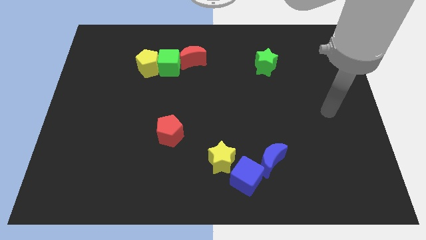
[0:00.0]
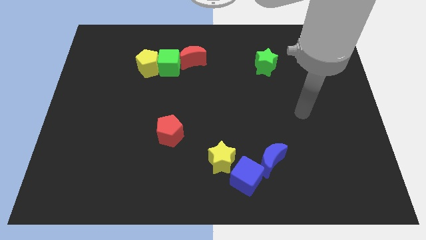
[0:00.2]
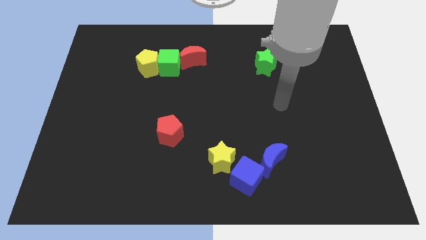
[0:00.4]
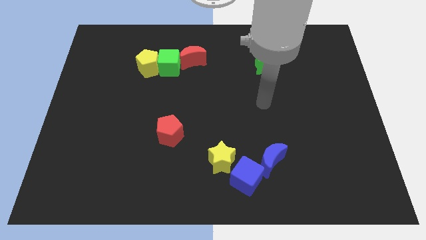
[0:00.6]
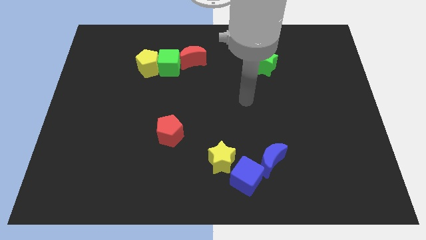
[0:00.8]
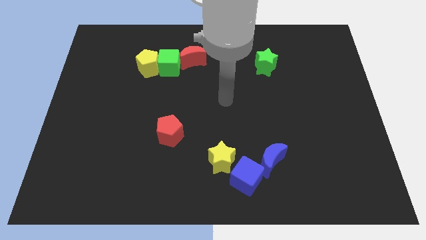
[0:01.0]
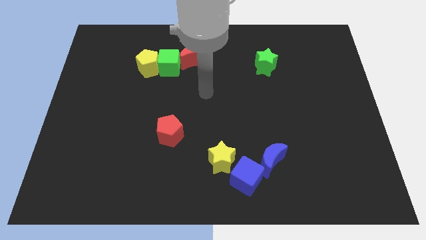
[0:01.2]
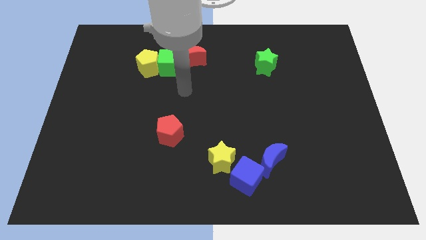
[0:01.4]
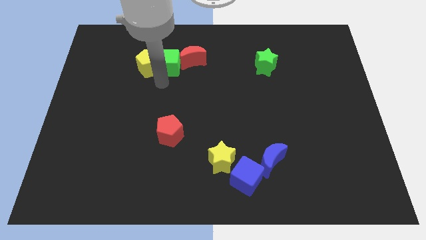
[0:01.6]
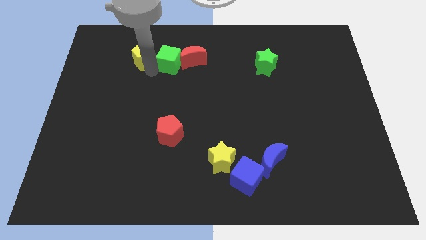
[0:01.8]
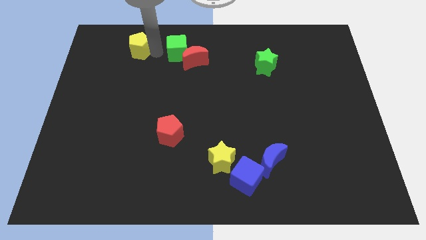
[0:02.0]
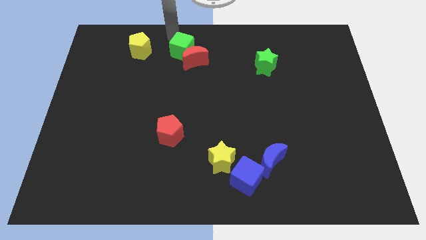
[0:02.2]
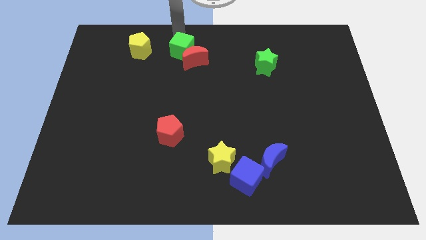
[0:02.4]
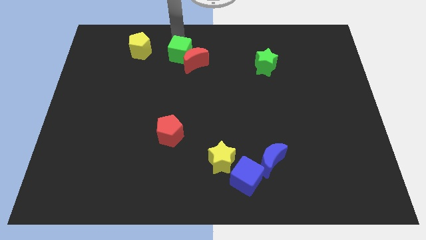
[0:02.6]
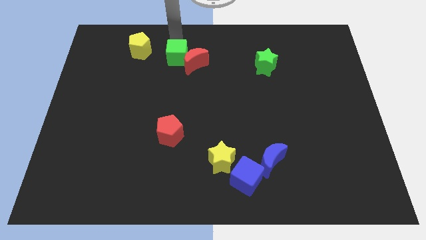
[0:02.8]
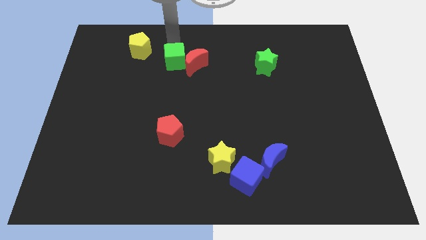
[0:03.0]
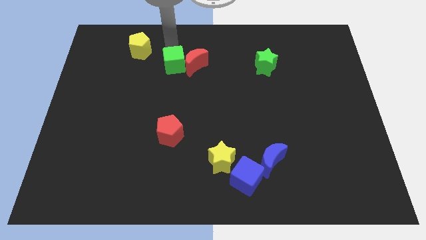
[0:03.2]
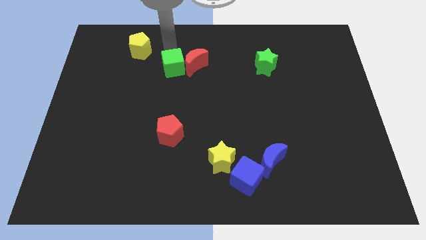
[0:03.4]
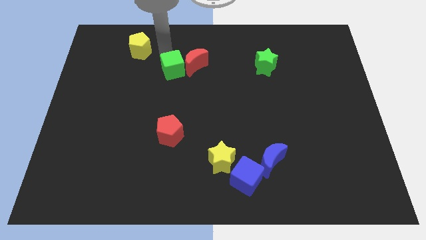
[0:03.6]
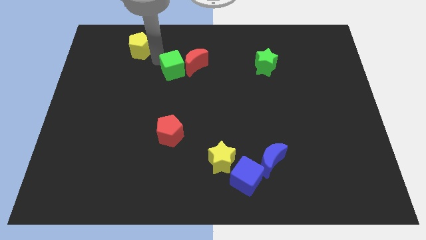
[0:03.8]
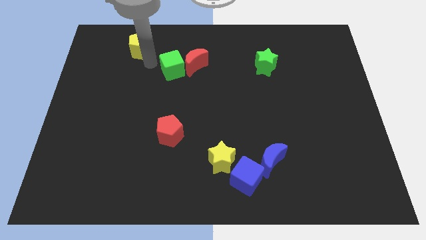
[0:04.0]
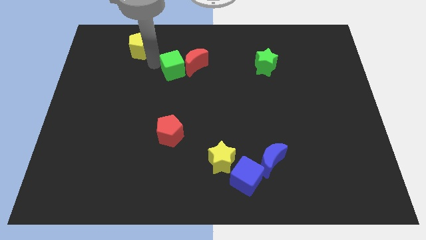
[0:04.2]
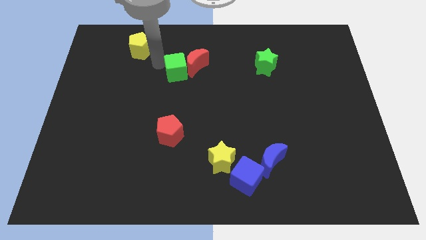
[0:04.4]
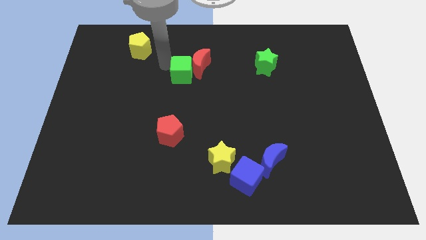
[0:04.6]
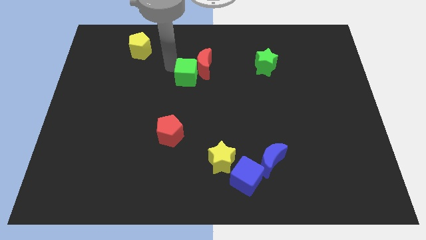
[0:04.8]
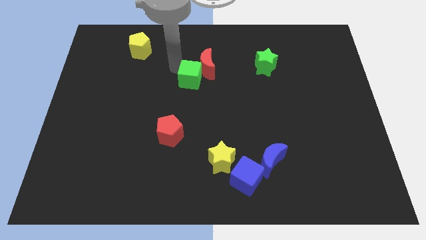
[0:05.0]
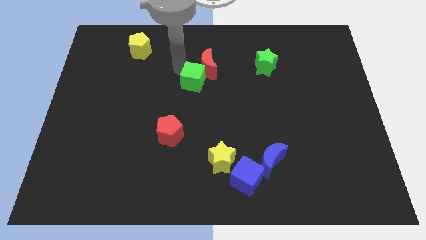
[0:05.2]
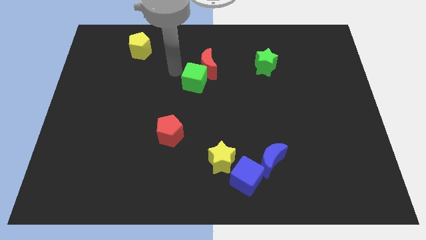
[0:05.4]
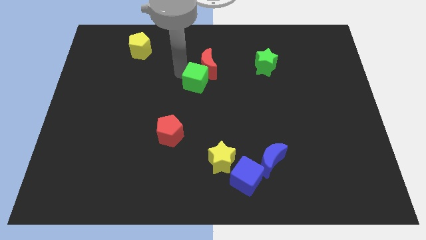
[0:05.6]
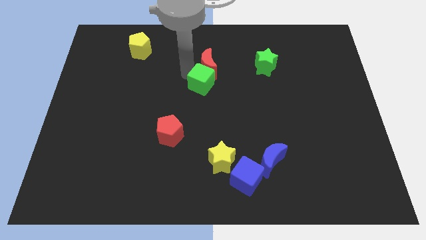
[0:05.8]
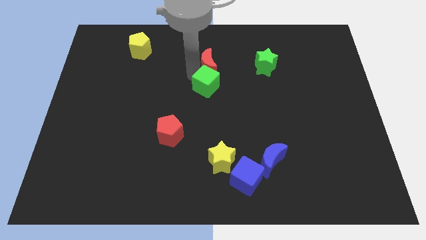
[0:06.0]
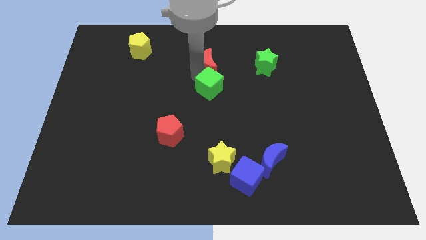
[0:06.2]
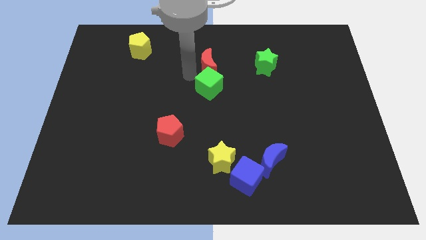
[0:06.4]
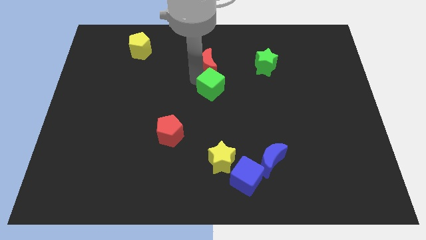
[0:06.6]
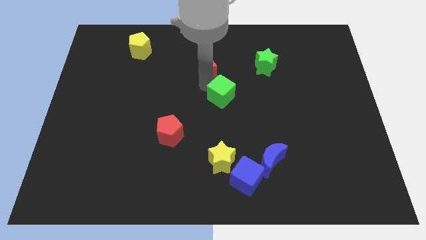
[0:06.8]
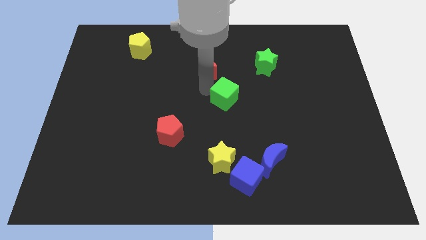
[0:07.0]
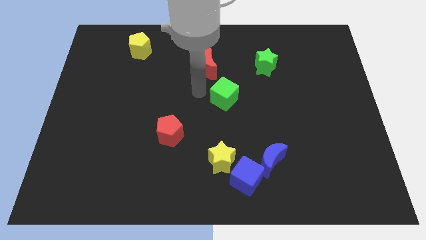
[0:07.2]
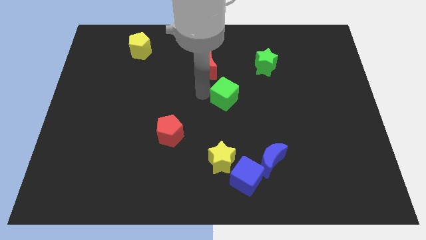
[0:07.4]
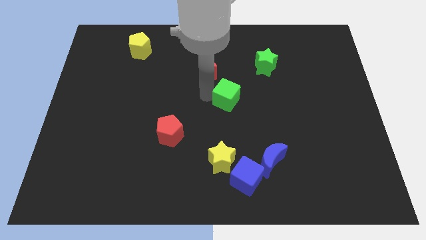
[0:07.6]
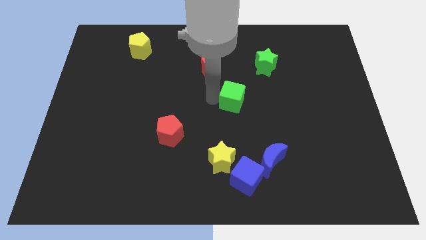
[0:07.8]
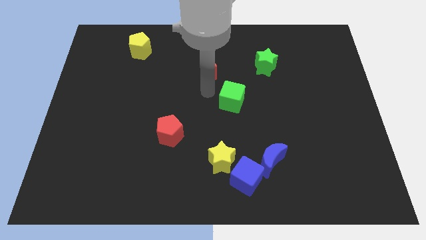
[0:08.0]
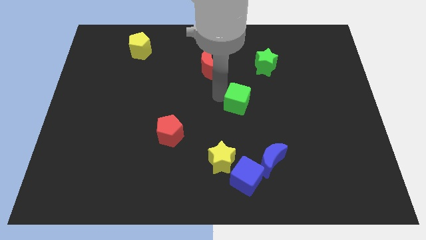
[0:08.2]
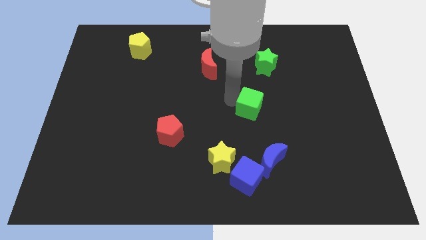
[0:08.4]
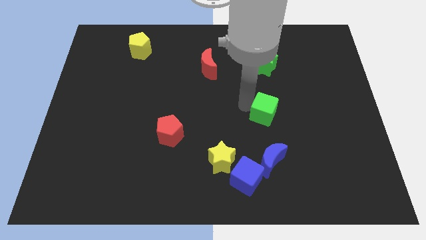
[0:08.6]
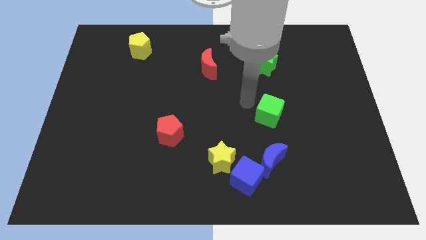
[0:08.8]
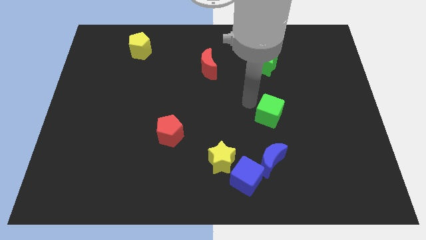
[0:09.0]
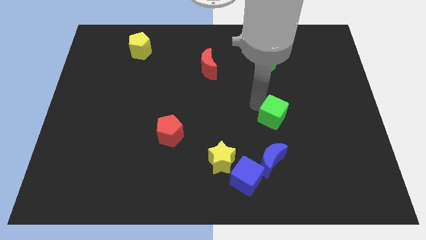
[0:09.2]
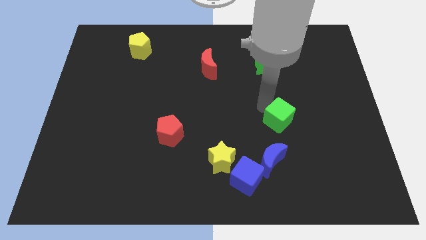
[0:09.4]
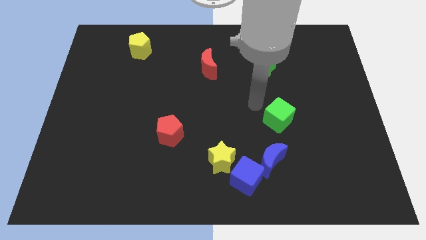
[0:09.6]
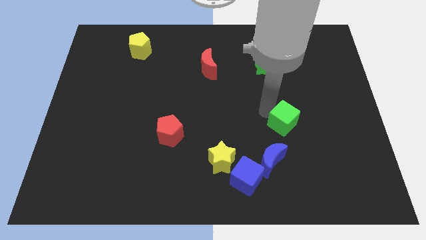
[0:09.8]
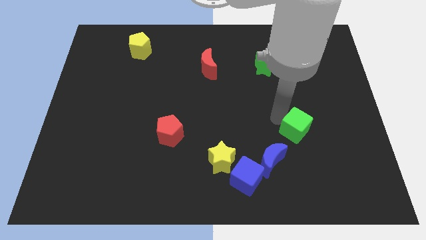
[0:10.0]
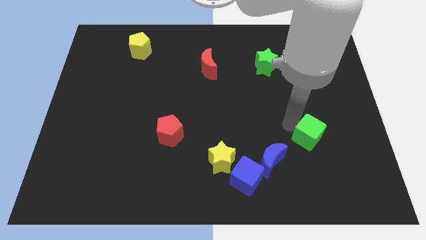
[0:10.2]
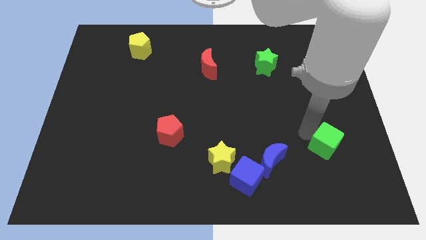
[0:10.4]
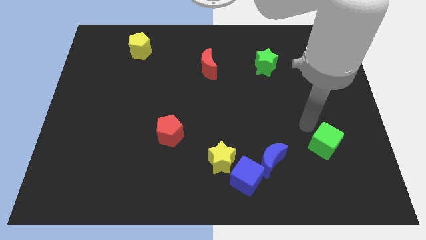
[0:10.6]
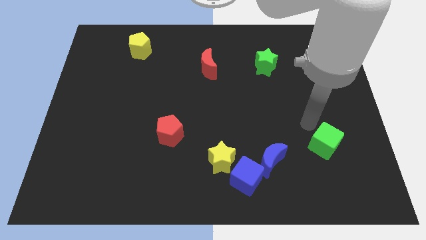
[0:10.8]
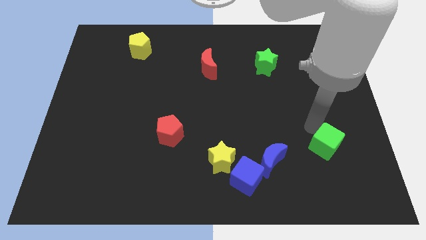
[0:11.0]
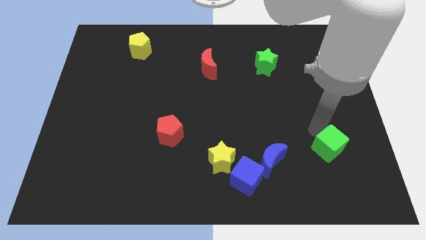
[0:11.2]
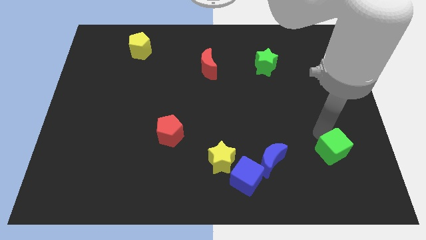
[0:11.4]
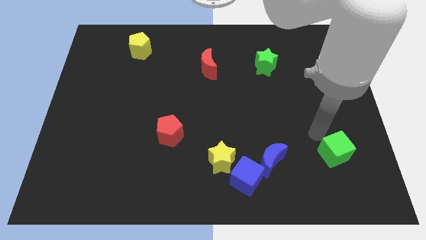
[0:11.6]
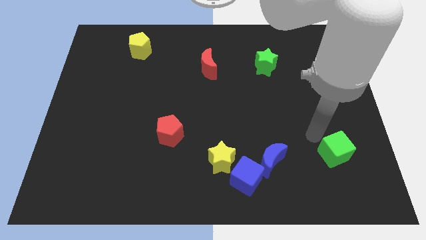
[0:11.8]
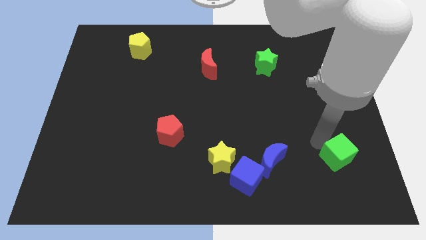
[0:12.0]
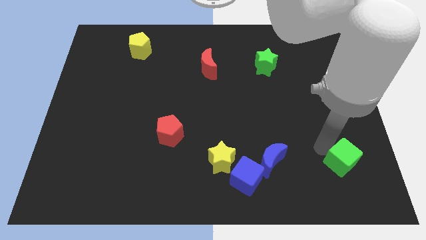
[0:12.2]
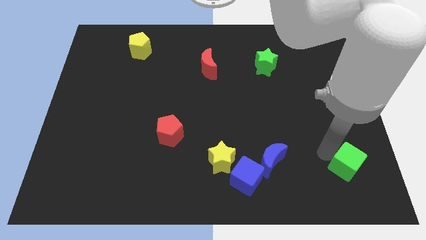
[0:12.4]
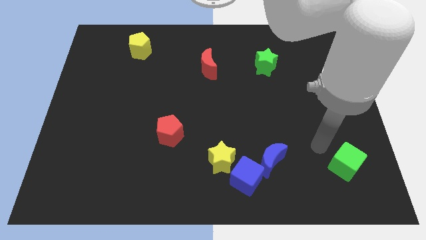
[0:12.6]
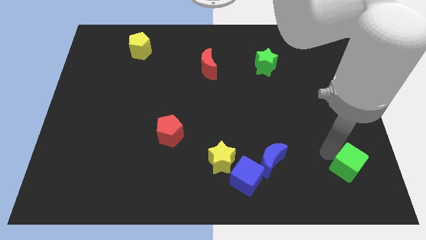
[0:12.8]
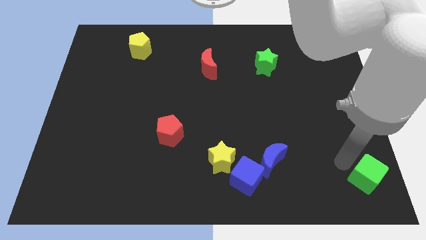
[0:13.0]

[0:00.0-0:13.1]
move the green cube to the bottom right
